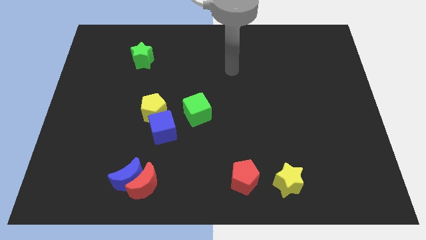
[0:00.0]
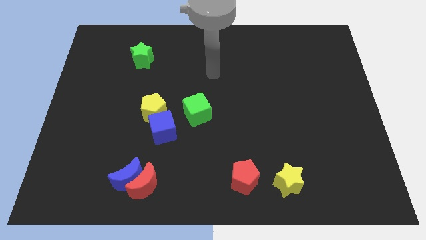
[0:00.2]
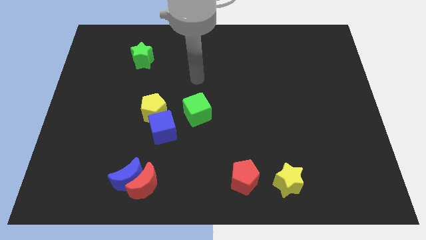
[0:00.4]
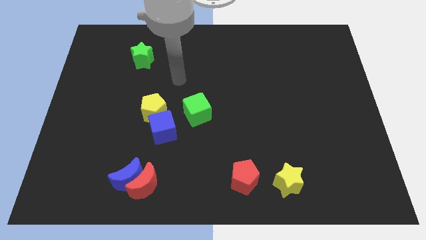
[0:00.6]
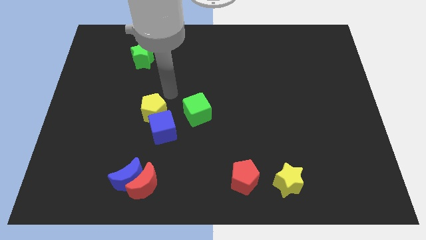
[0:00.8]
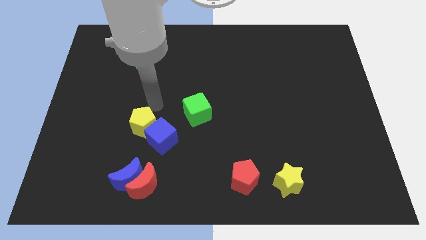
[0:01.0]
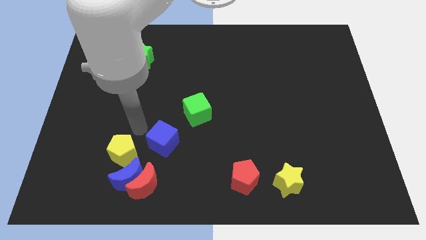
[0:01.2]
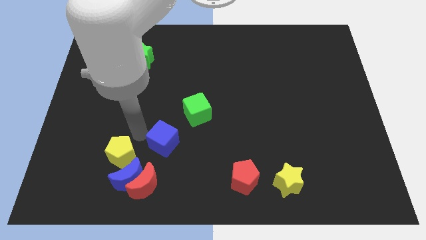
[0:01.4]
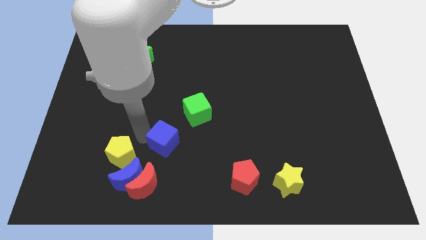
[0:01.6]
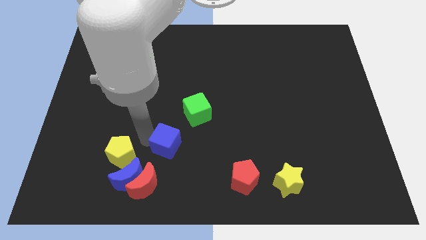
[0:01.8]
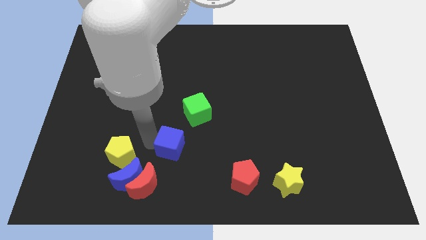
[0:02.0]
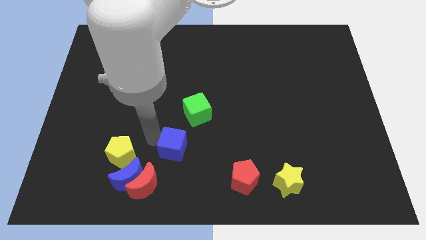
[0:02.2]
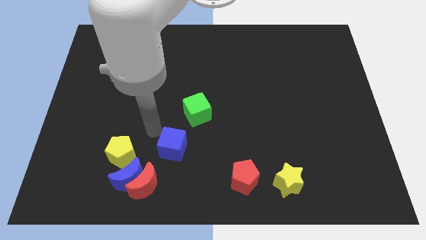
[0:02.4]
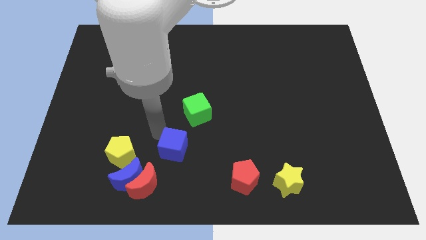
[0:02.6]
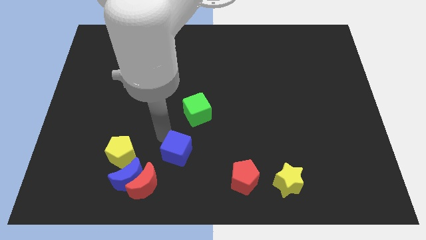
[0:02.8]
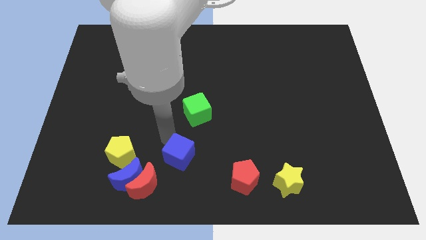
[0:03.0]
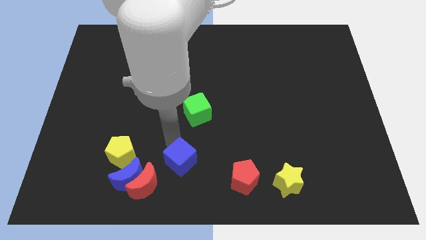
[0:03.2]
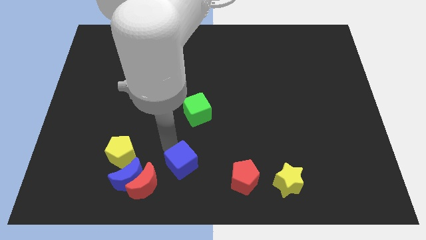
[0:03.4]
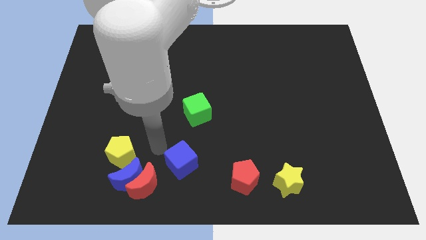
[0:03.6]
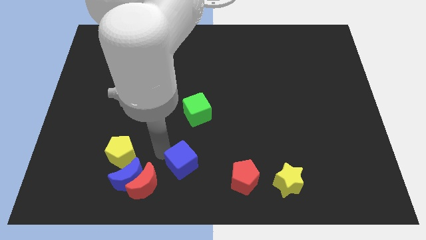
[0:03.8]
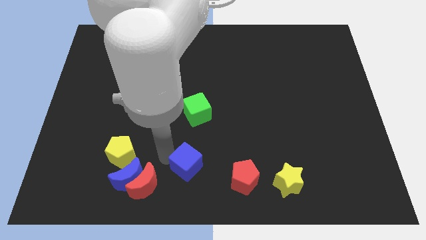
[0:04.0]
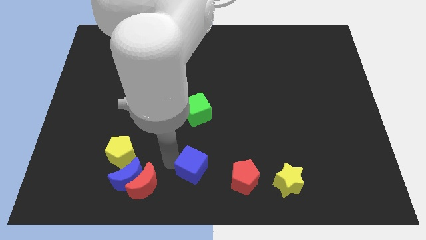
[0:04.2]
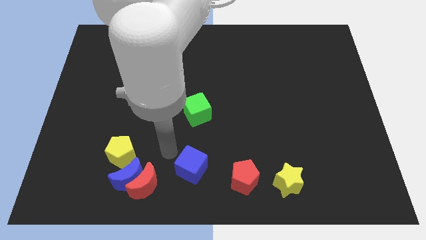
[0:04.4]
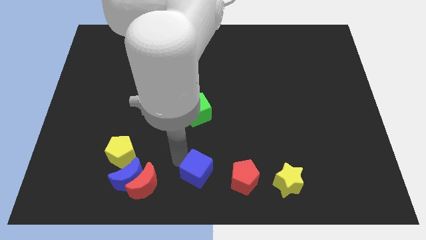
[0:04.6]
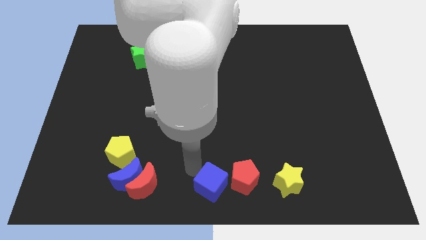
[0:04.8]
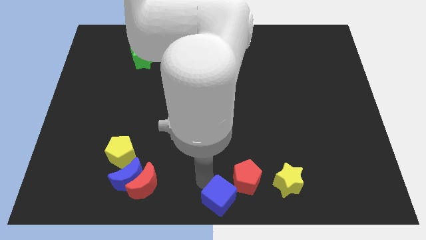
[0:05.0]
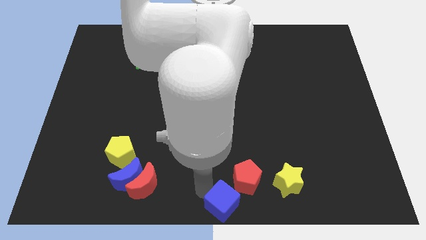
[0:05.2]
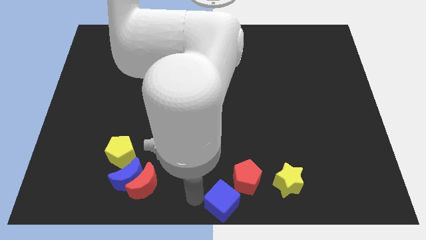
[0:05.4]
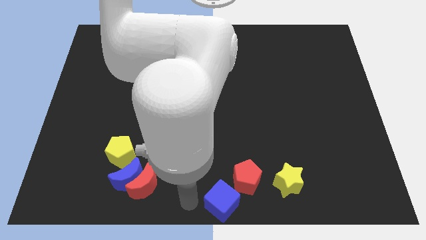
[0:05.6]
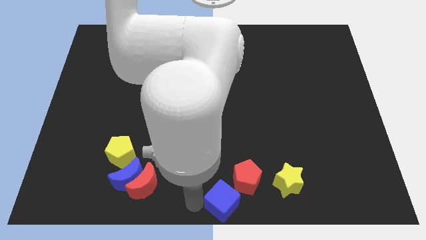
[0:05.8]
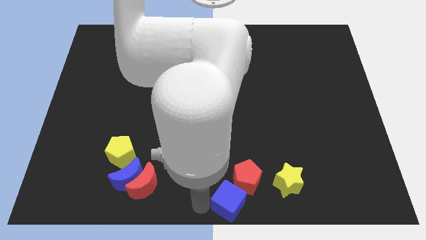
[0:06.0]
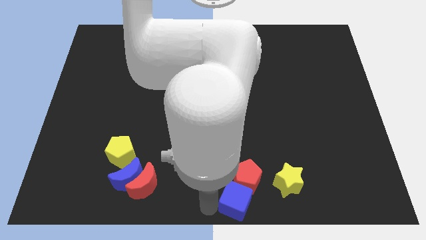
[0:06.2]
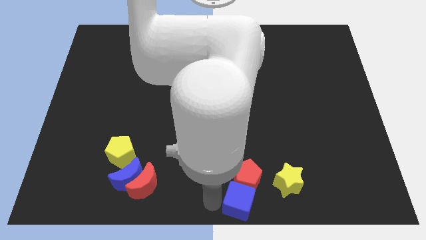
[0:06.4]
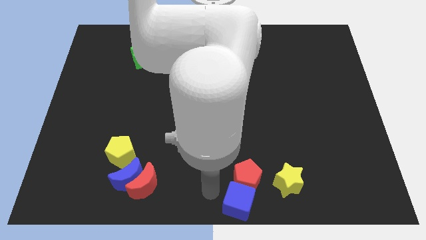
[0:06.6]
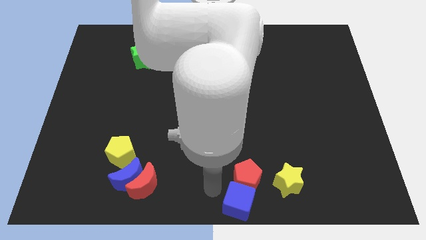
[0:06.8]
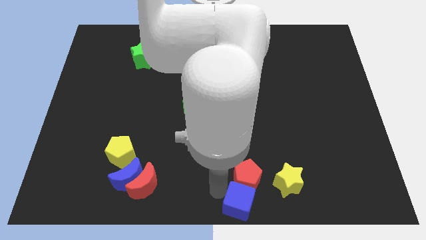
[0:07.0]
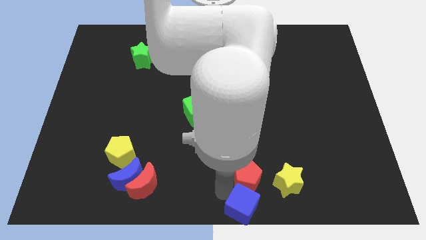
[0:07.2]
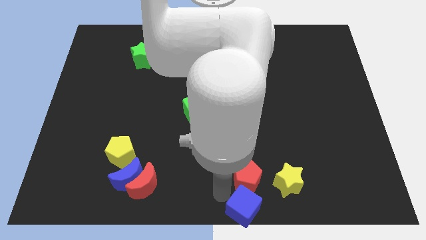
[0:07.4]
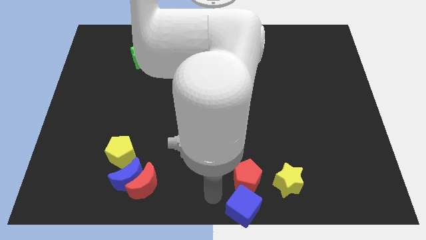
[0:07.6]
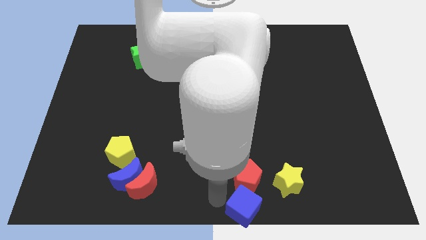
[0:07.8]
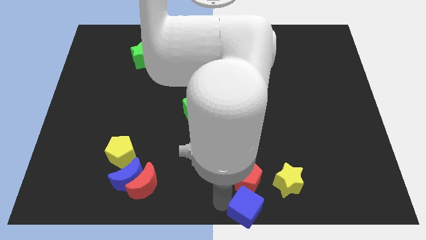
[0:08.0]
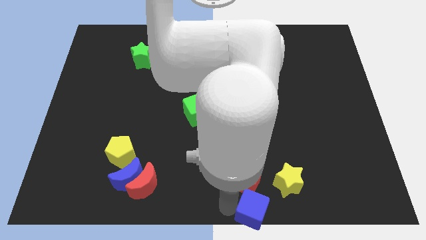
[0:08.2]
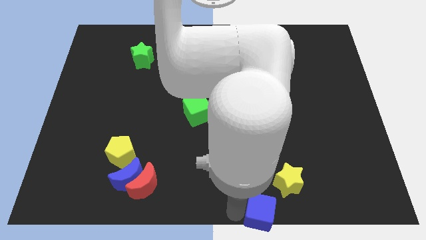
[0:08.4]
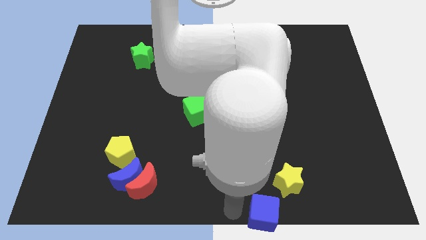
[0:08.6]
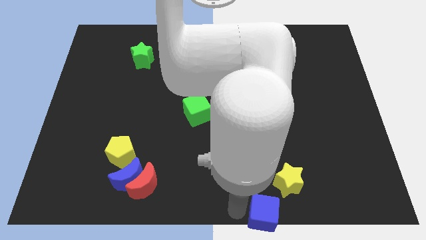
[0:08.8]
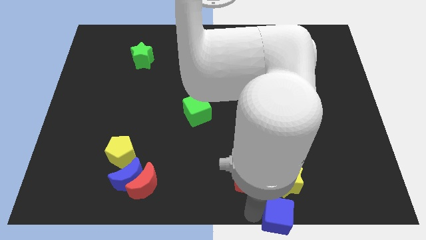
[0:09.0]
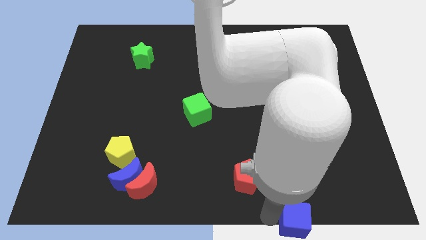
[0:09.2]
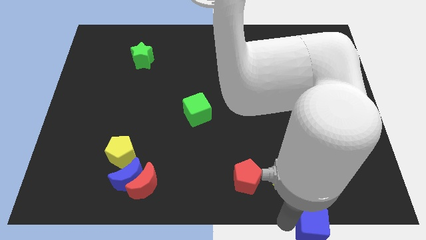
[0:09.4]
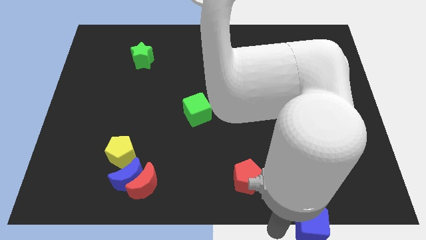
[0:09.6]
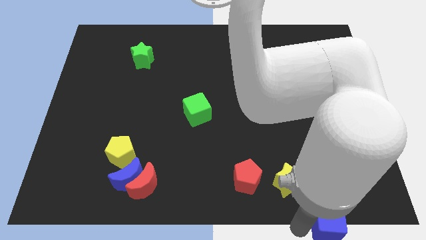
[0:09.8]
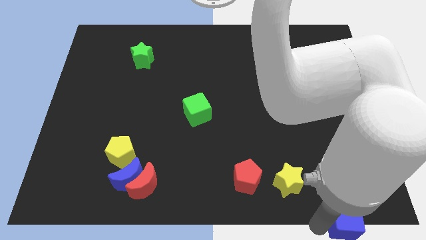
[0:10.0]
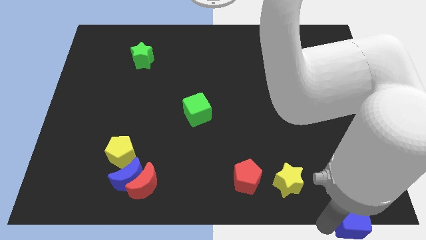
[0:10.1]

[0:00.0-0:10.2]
slide the blue cube to the bottom right of the board
